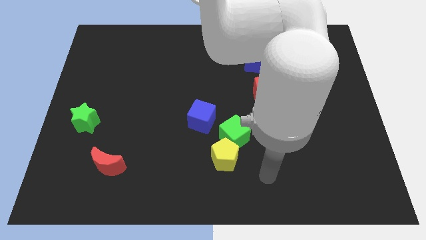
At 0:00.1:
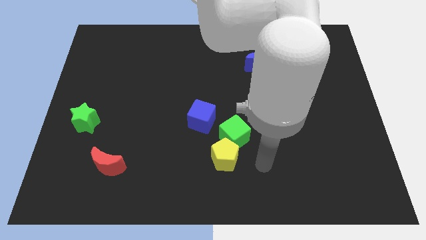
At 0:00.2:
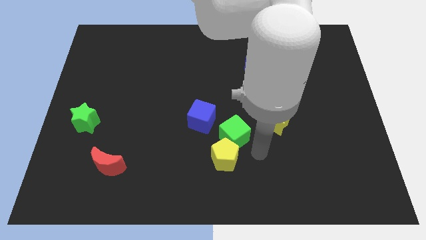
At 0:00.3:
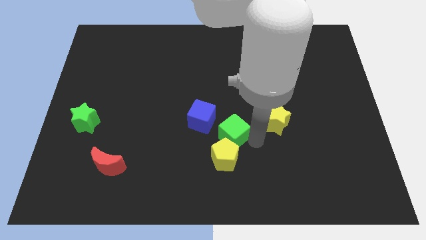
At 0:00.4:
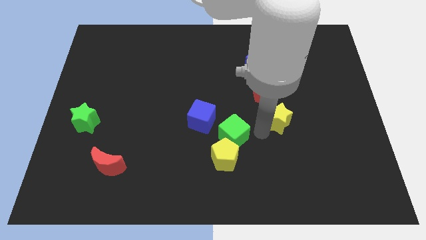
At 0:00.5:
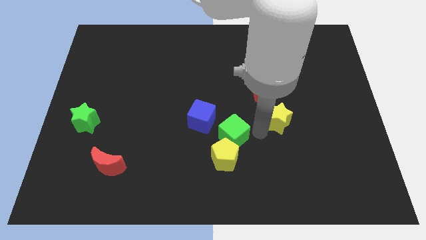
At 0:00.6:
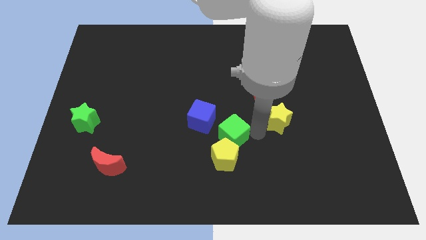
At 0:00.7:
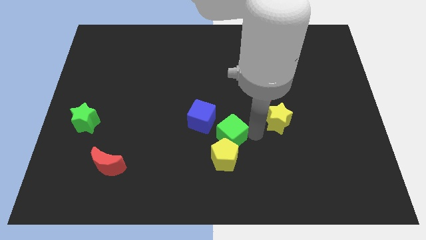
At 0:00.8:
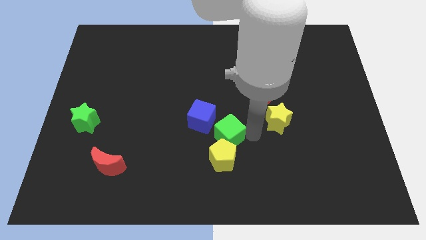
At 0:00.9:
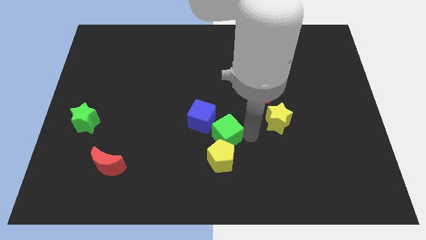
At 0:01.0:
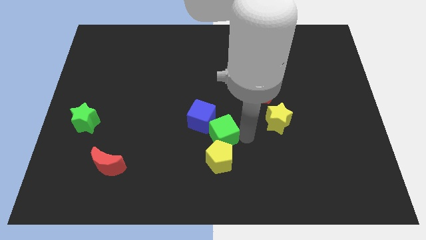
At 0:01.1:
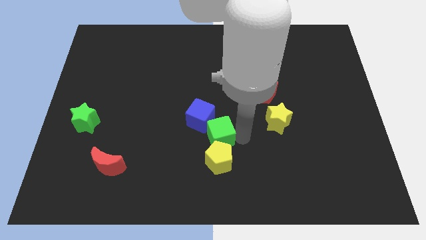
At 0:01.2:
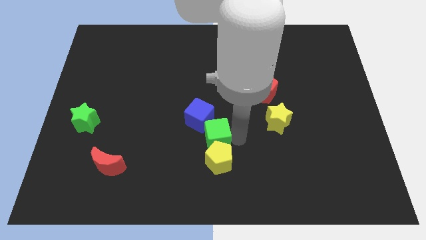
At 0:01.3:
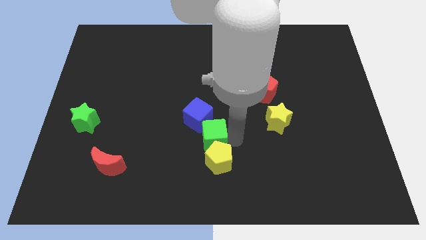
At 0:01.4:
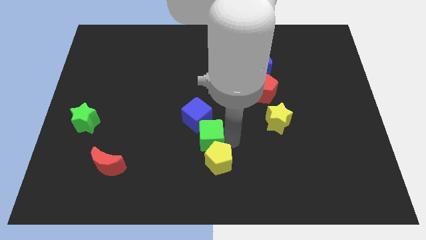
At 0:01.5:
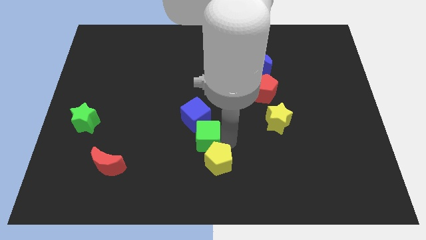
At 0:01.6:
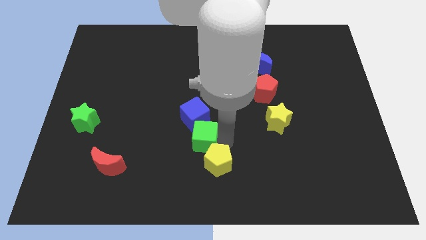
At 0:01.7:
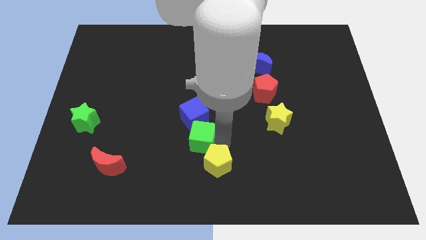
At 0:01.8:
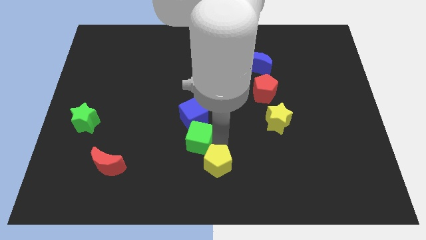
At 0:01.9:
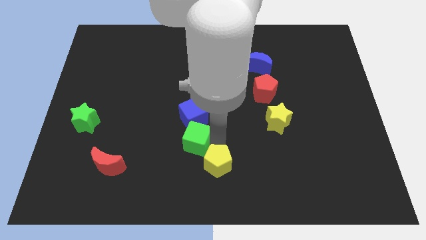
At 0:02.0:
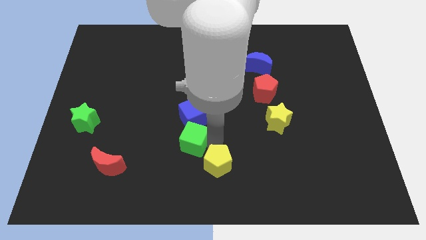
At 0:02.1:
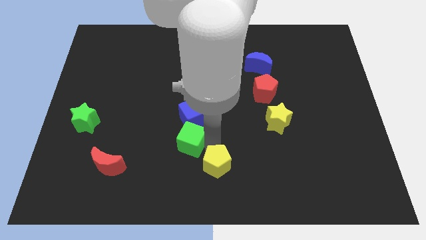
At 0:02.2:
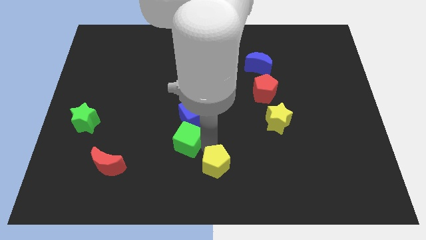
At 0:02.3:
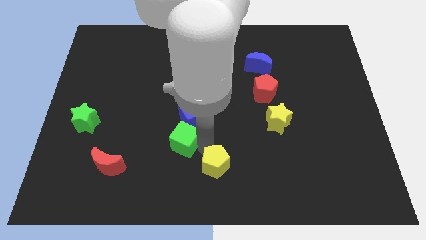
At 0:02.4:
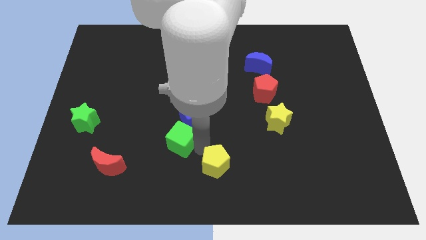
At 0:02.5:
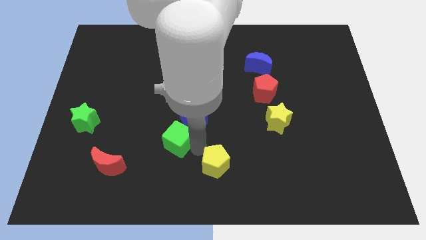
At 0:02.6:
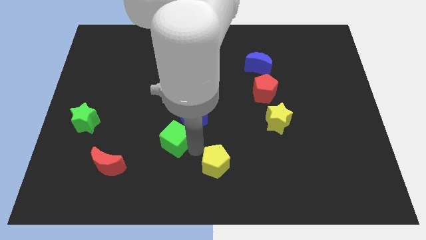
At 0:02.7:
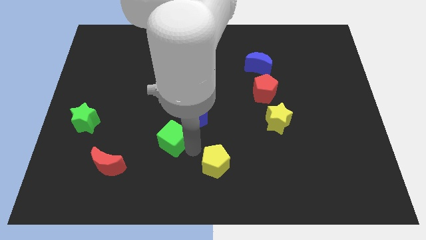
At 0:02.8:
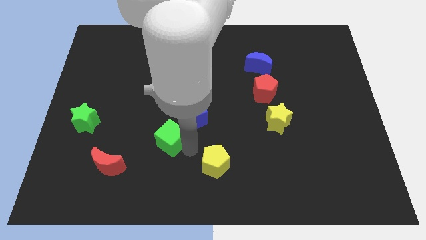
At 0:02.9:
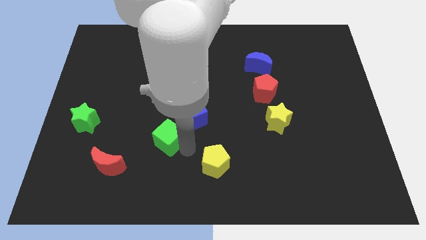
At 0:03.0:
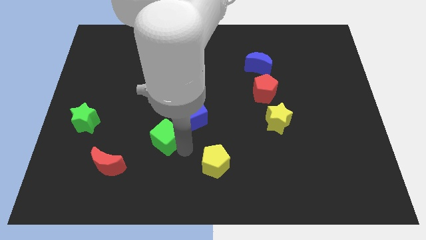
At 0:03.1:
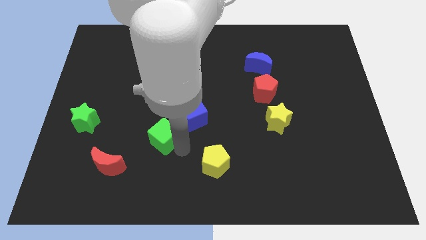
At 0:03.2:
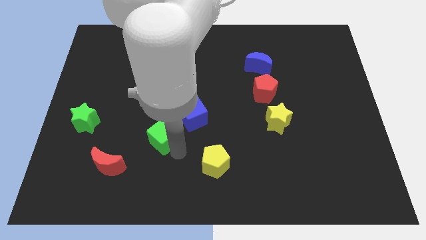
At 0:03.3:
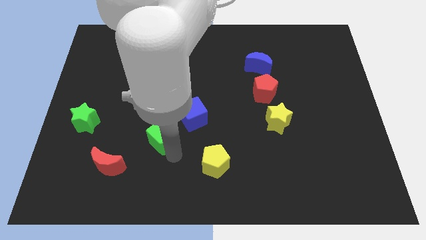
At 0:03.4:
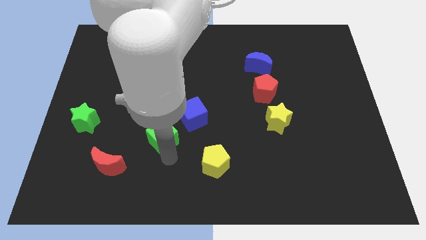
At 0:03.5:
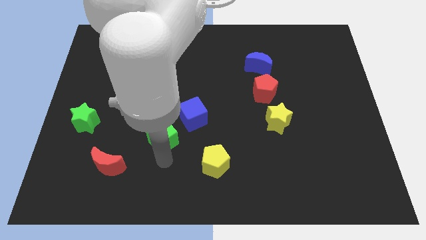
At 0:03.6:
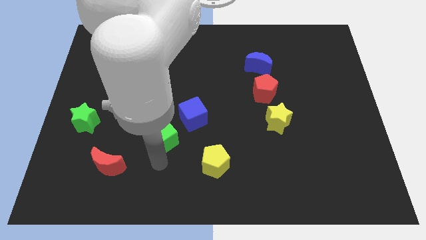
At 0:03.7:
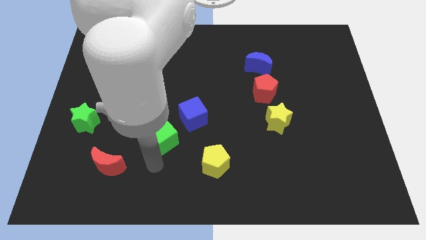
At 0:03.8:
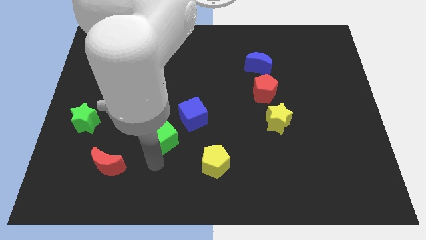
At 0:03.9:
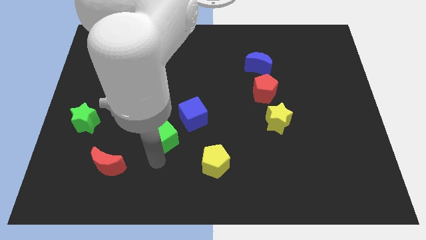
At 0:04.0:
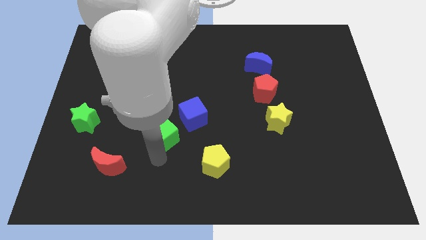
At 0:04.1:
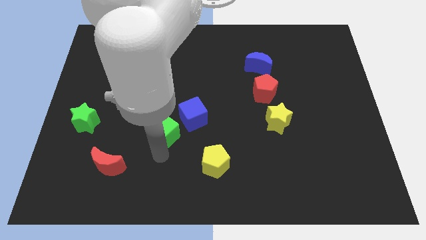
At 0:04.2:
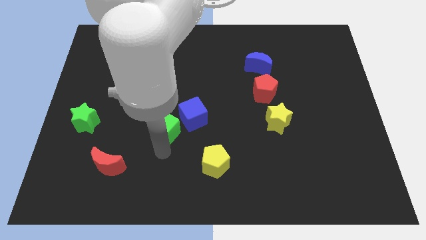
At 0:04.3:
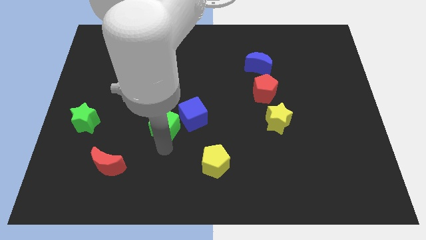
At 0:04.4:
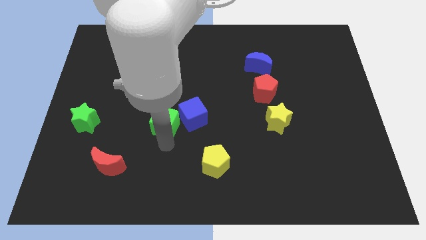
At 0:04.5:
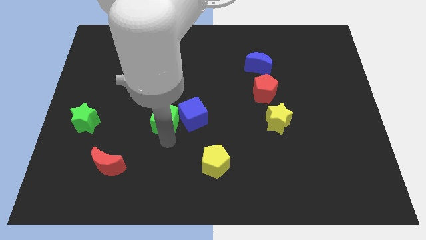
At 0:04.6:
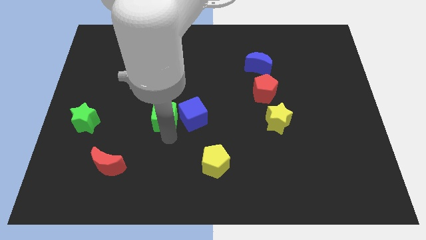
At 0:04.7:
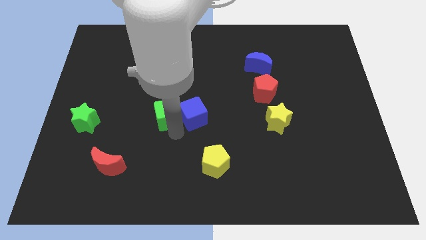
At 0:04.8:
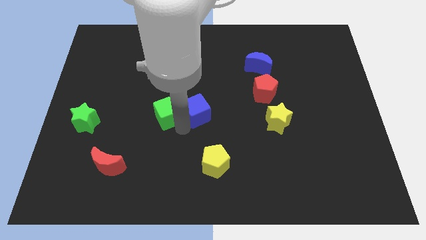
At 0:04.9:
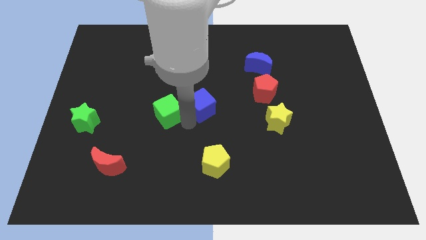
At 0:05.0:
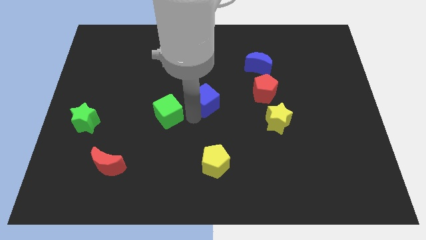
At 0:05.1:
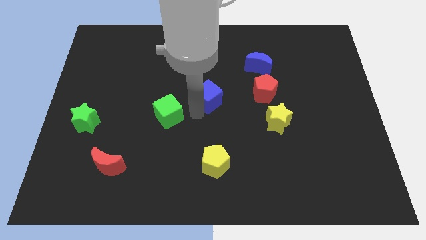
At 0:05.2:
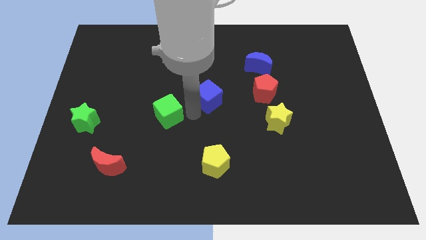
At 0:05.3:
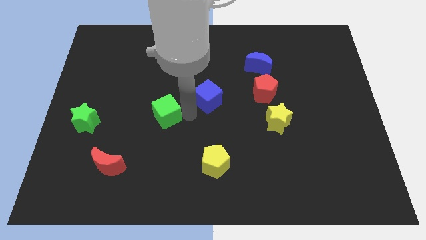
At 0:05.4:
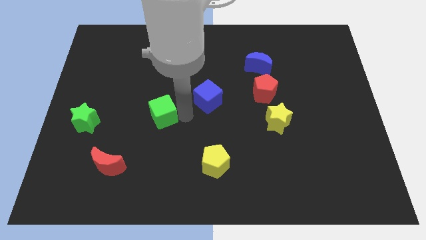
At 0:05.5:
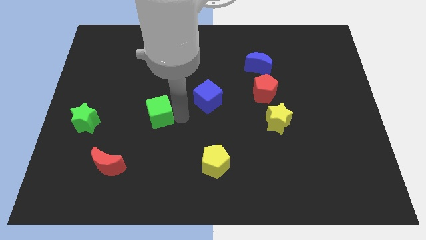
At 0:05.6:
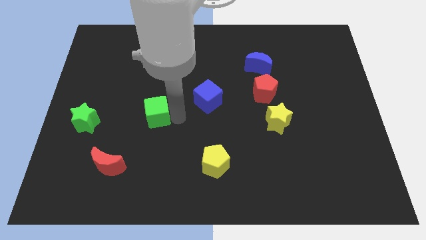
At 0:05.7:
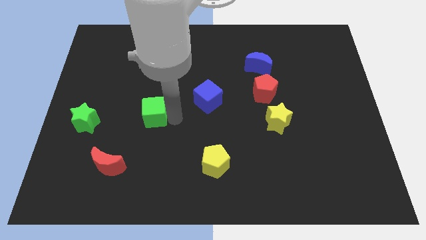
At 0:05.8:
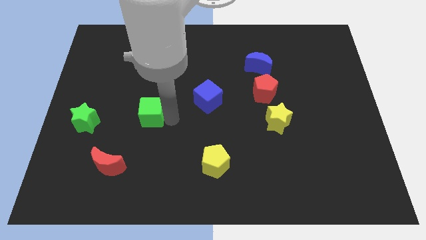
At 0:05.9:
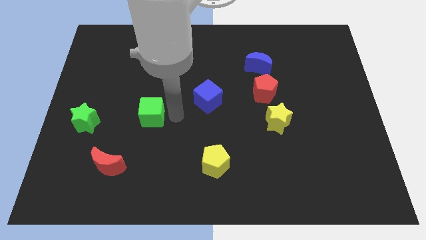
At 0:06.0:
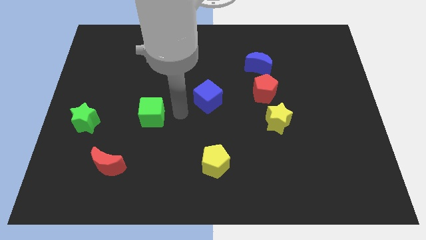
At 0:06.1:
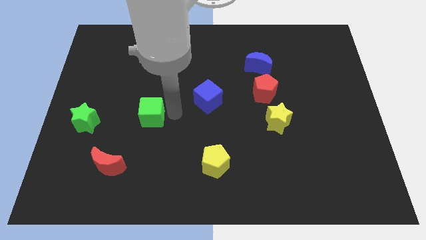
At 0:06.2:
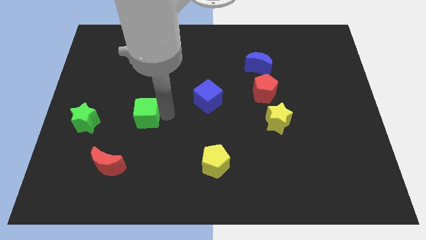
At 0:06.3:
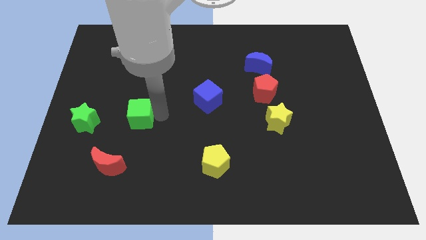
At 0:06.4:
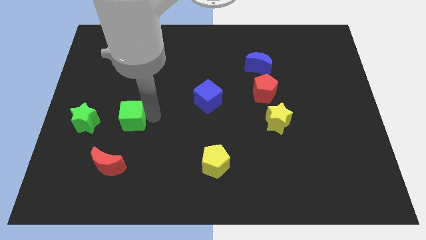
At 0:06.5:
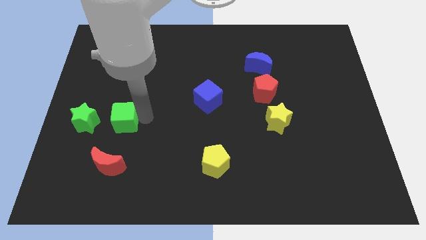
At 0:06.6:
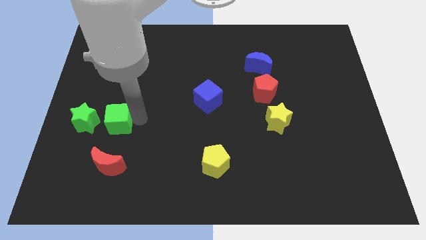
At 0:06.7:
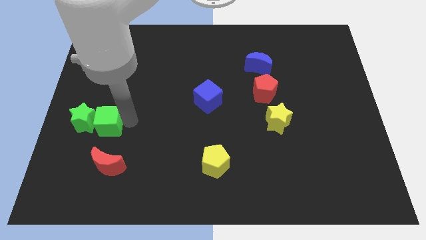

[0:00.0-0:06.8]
slide the green cube to the green star
